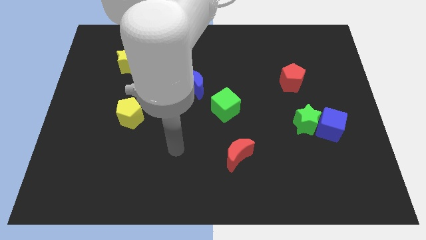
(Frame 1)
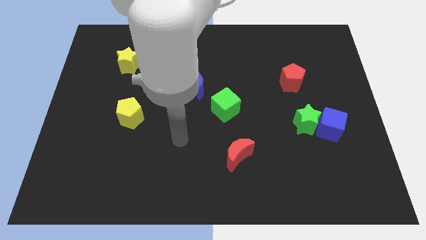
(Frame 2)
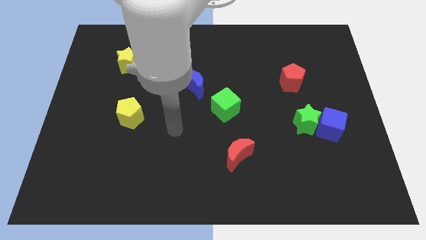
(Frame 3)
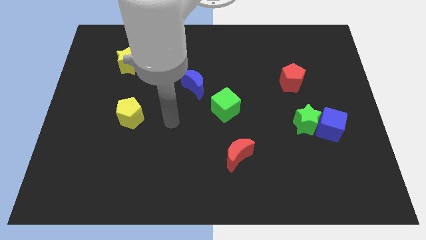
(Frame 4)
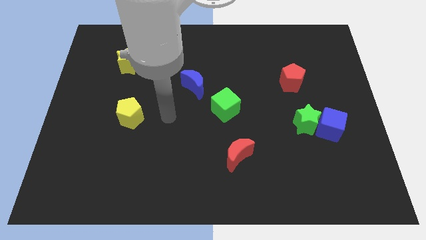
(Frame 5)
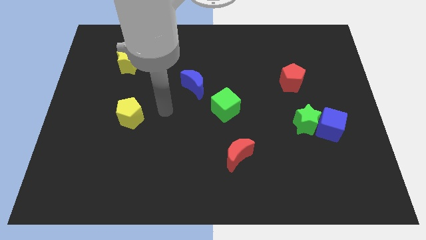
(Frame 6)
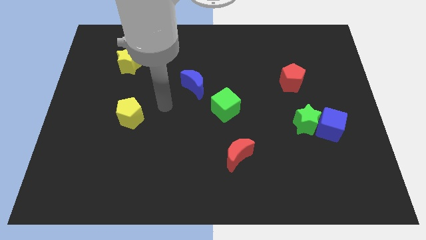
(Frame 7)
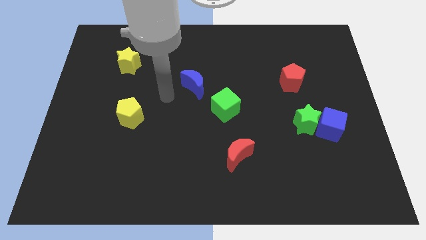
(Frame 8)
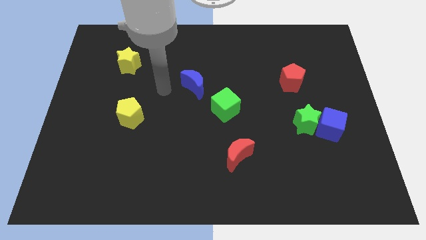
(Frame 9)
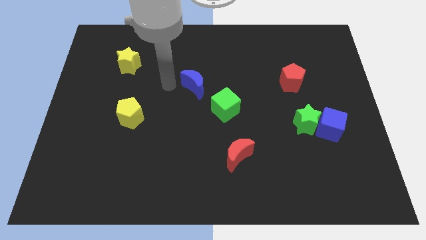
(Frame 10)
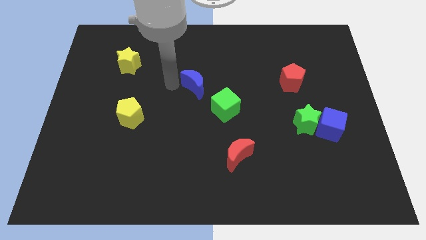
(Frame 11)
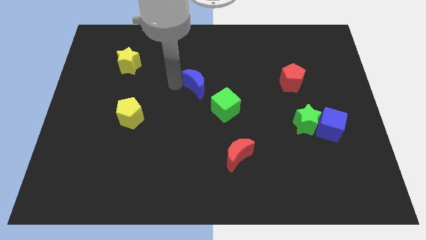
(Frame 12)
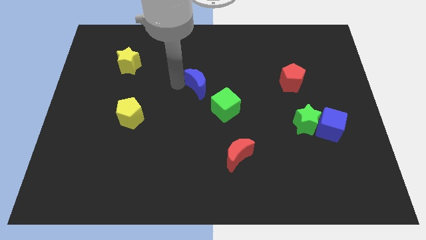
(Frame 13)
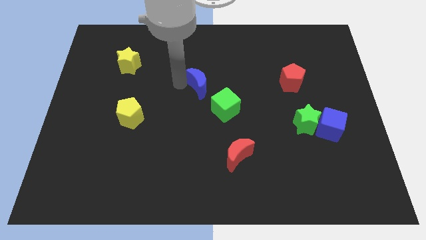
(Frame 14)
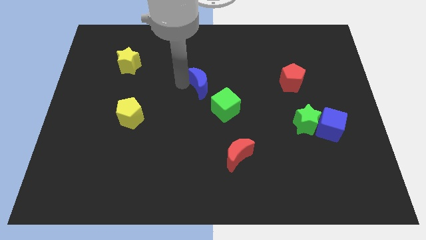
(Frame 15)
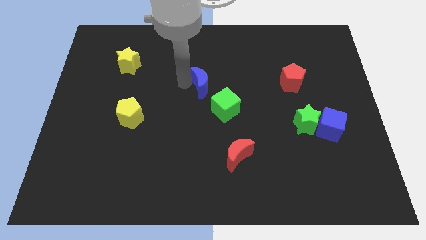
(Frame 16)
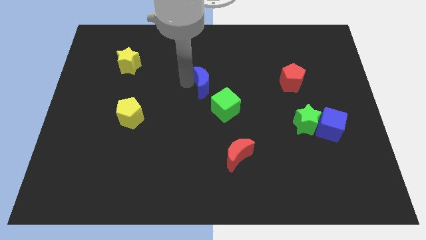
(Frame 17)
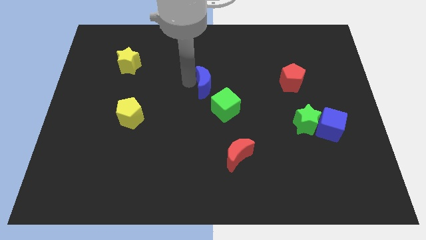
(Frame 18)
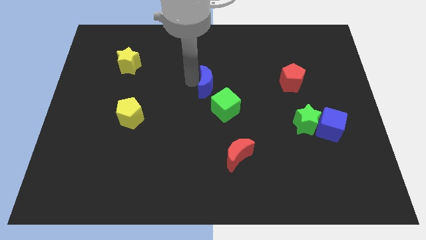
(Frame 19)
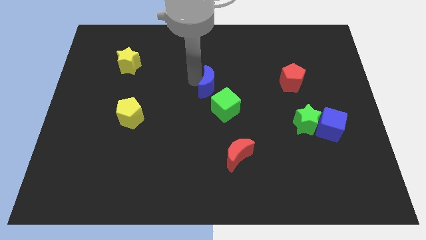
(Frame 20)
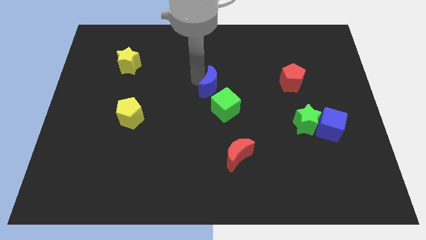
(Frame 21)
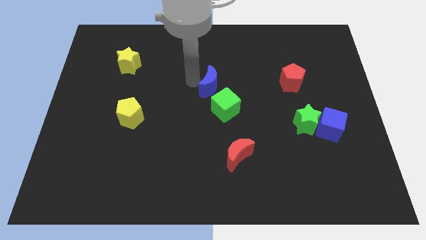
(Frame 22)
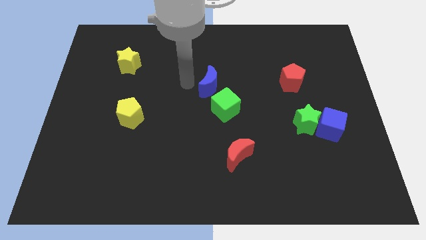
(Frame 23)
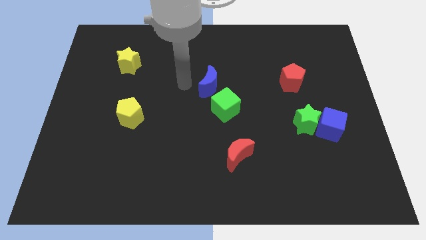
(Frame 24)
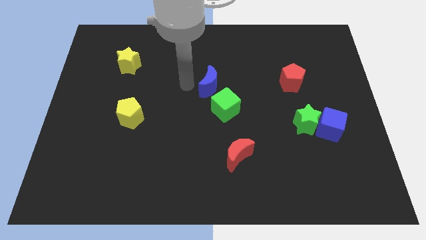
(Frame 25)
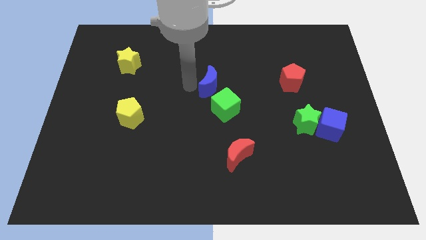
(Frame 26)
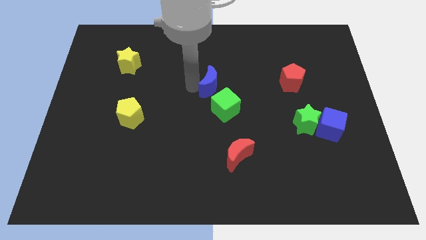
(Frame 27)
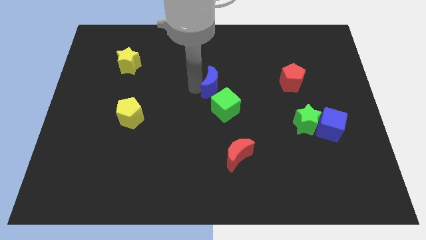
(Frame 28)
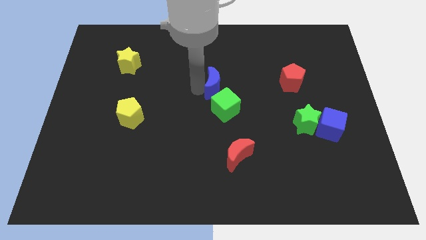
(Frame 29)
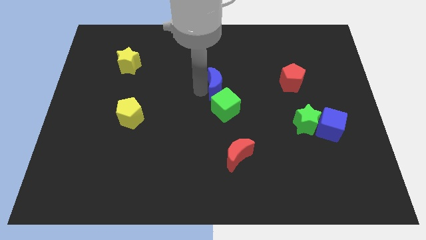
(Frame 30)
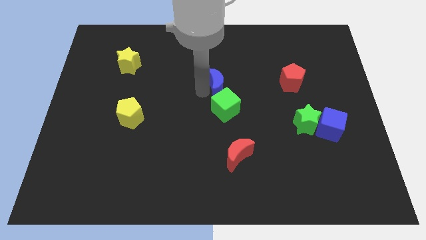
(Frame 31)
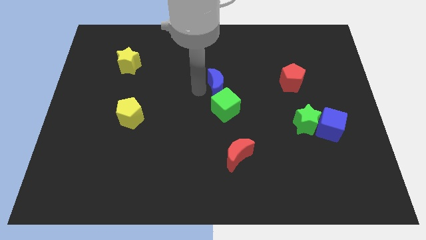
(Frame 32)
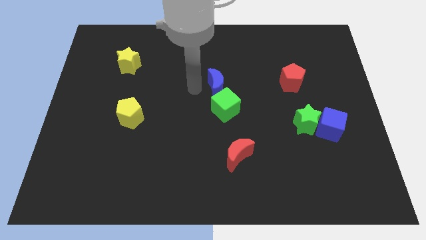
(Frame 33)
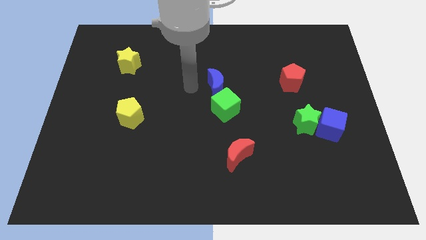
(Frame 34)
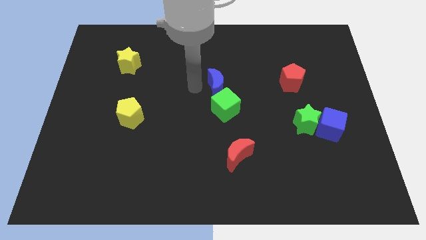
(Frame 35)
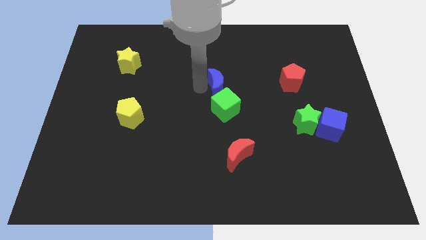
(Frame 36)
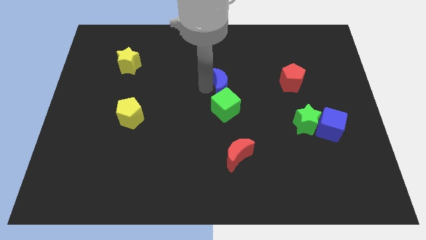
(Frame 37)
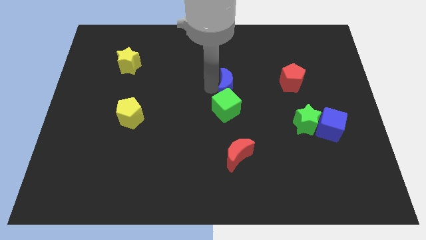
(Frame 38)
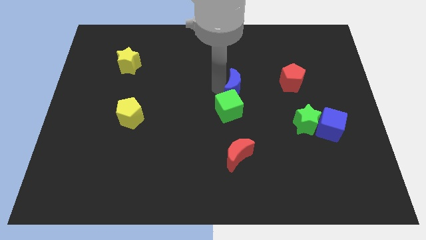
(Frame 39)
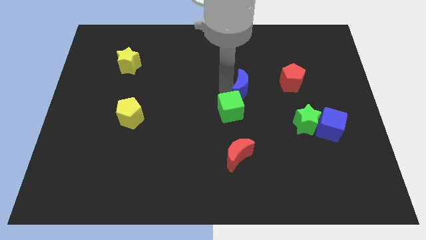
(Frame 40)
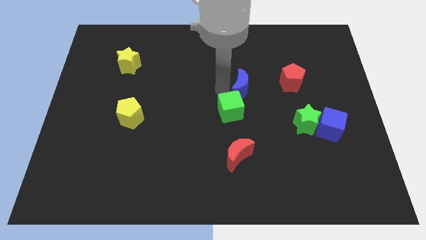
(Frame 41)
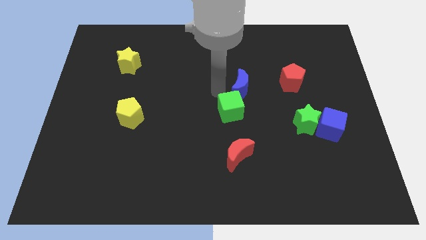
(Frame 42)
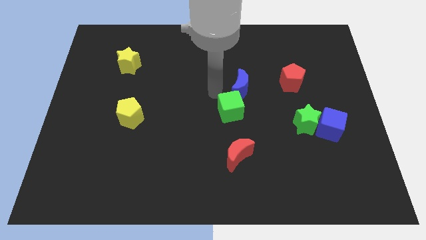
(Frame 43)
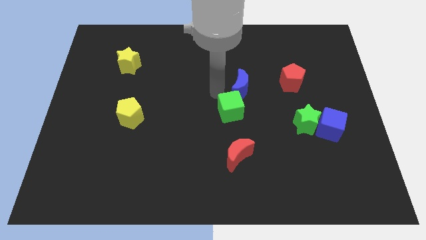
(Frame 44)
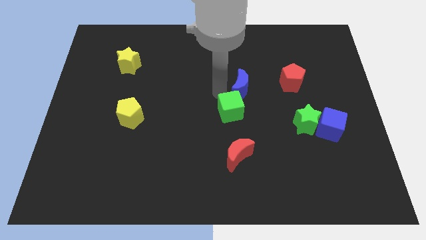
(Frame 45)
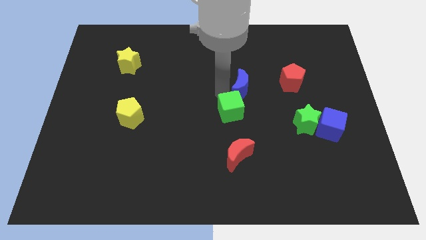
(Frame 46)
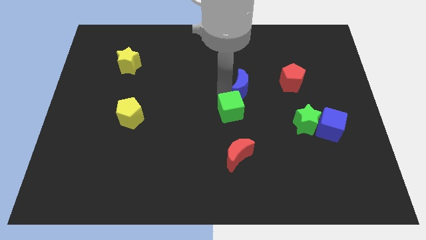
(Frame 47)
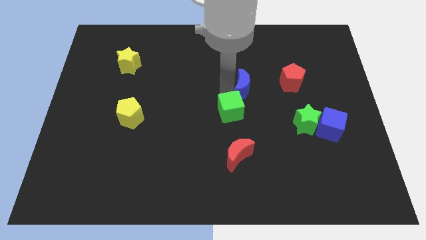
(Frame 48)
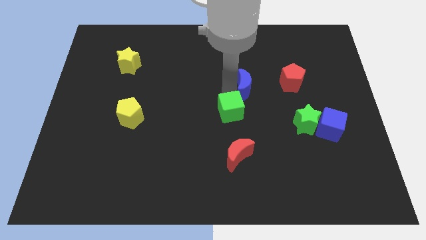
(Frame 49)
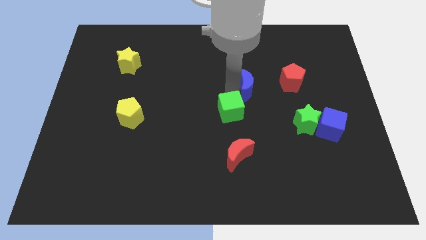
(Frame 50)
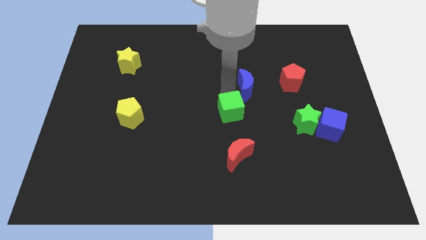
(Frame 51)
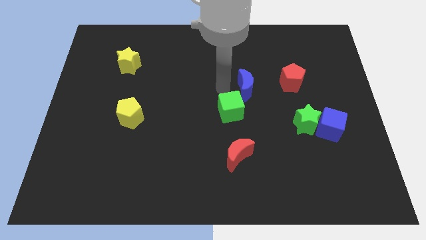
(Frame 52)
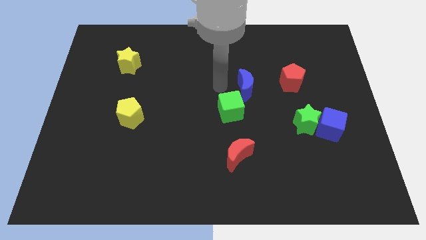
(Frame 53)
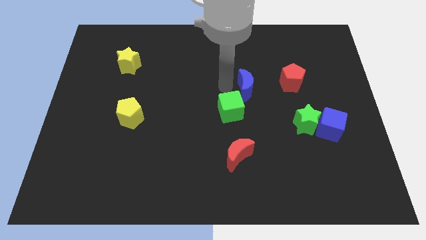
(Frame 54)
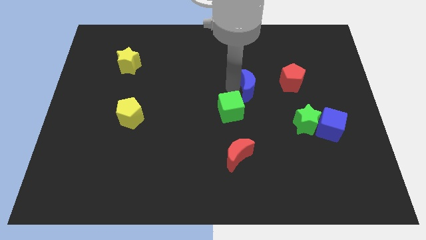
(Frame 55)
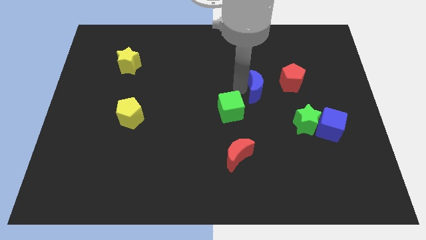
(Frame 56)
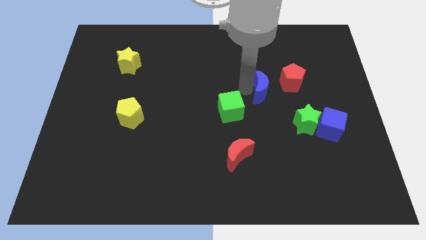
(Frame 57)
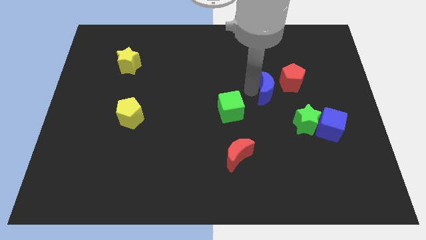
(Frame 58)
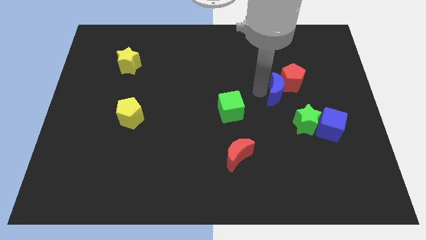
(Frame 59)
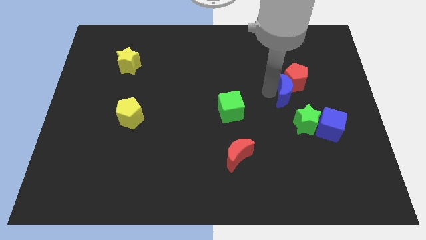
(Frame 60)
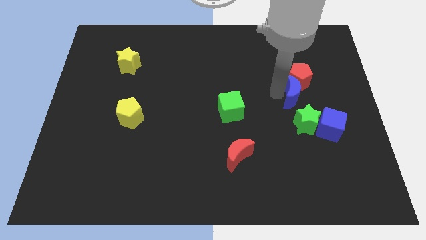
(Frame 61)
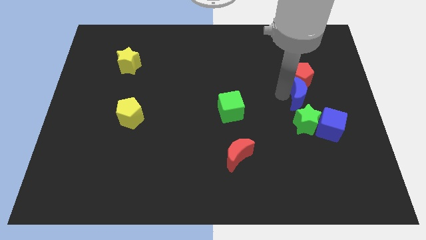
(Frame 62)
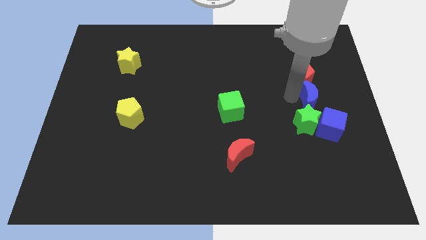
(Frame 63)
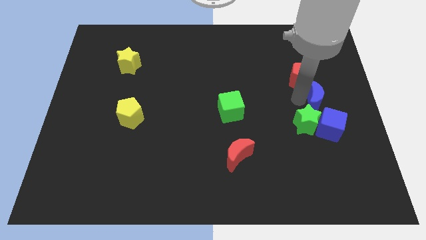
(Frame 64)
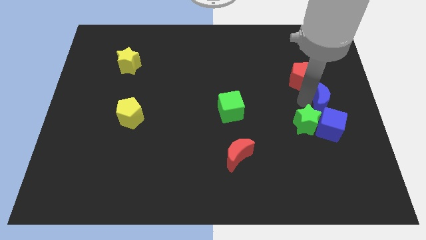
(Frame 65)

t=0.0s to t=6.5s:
push the blue moon to the right side of the board

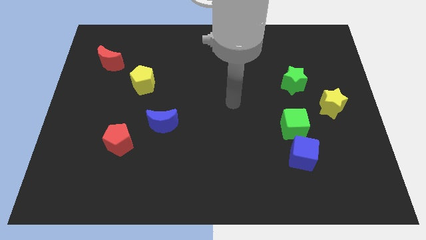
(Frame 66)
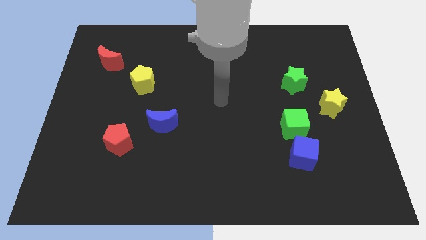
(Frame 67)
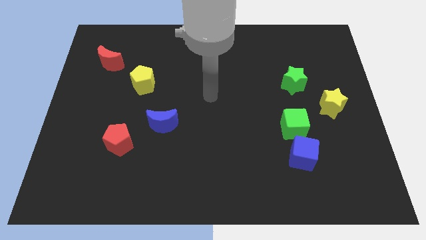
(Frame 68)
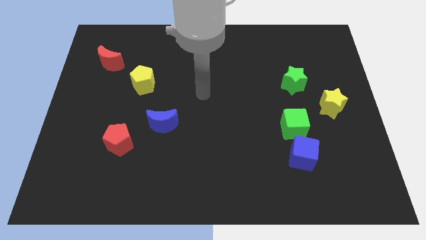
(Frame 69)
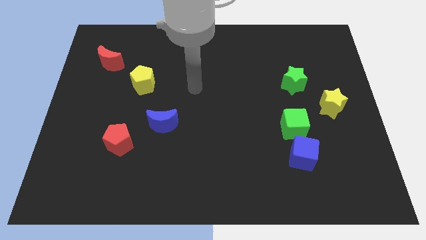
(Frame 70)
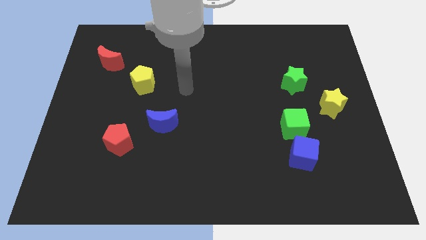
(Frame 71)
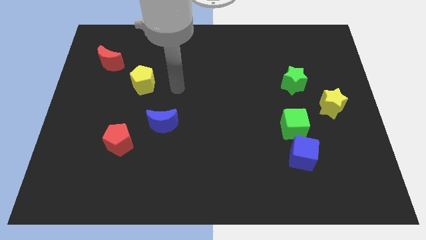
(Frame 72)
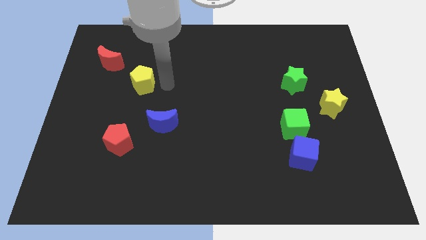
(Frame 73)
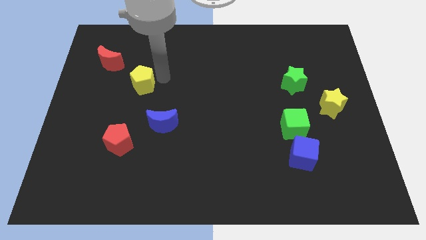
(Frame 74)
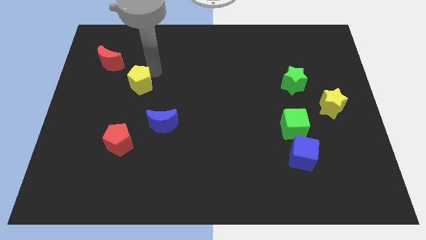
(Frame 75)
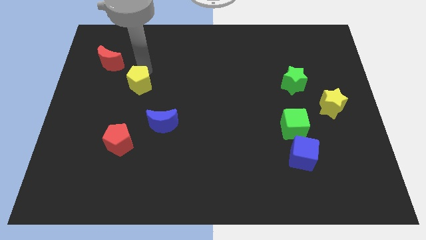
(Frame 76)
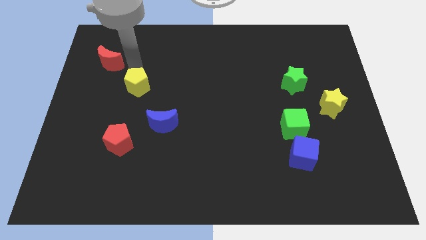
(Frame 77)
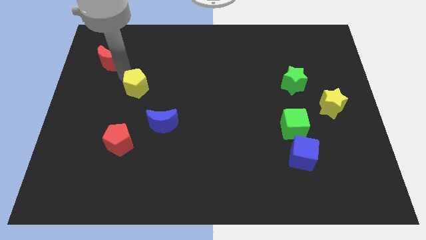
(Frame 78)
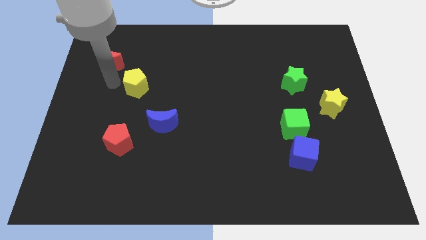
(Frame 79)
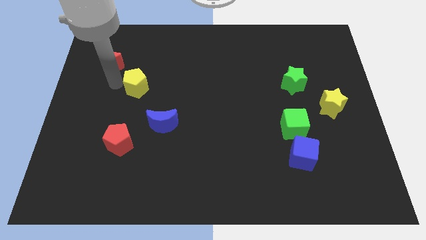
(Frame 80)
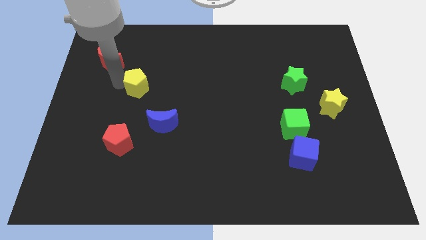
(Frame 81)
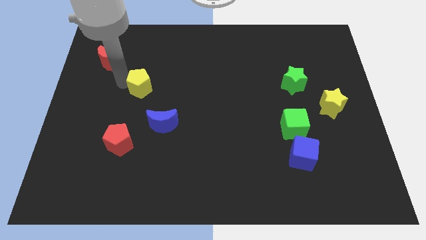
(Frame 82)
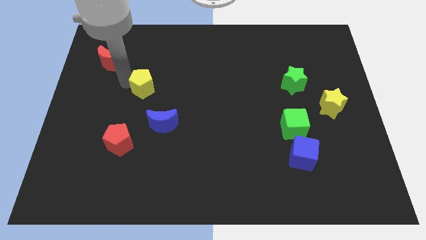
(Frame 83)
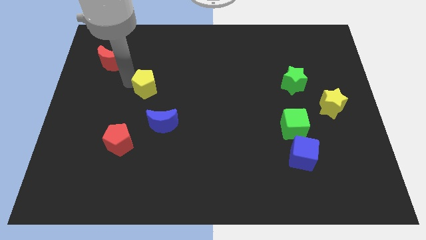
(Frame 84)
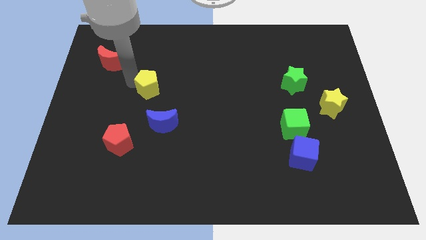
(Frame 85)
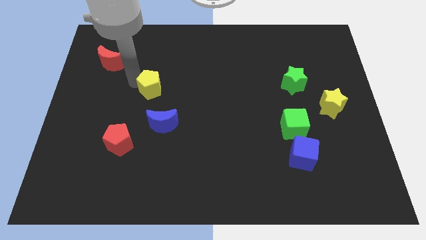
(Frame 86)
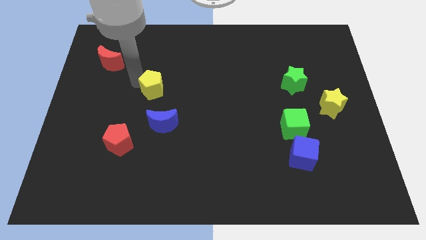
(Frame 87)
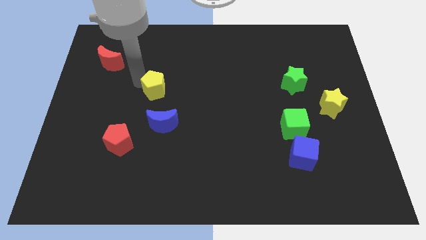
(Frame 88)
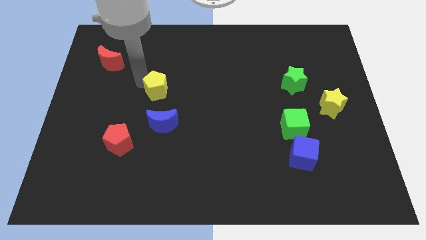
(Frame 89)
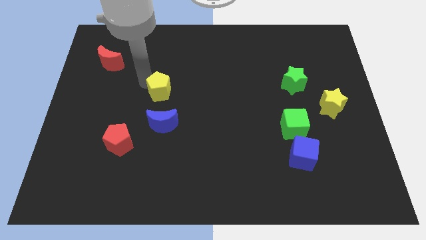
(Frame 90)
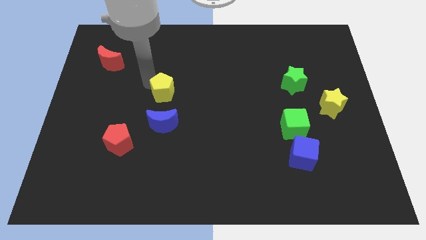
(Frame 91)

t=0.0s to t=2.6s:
push the yellow pentagon to the middle of the board
